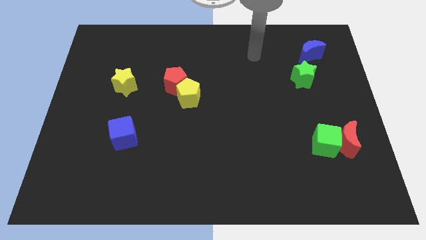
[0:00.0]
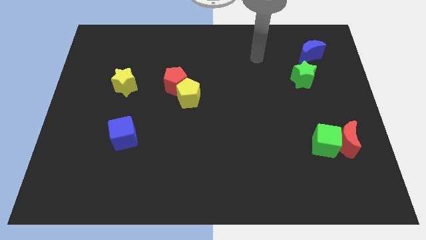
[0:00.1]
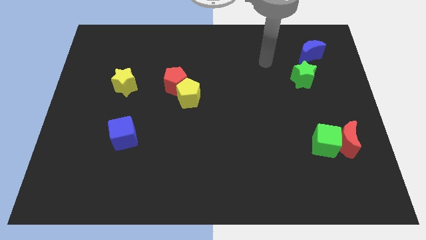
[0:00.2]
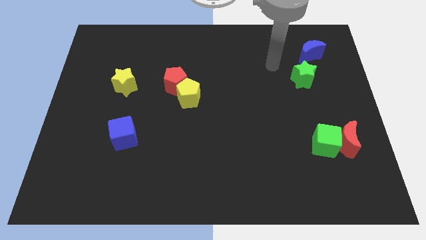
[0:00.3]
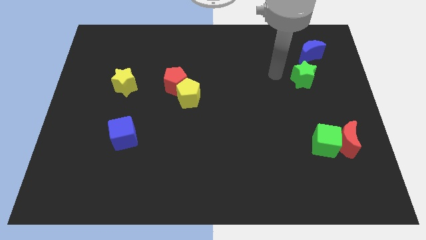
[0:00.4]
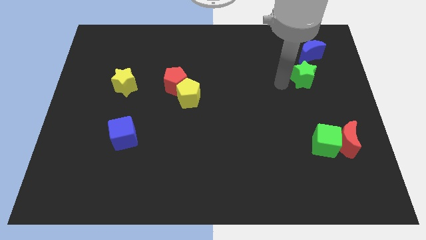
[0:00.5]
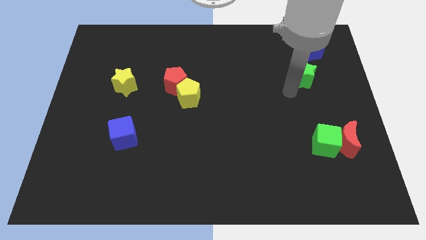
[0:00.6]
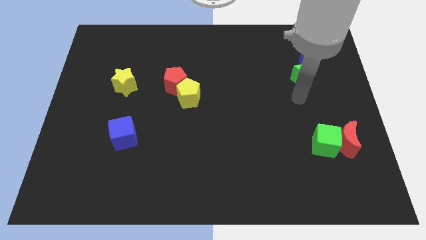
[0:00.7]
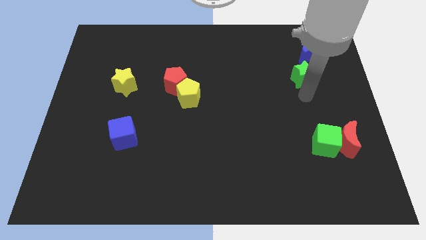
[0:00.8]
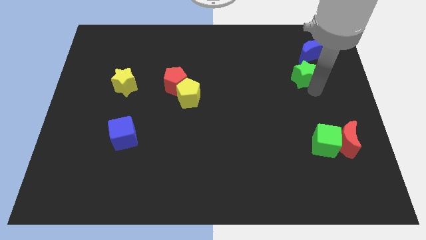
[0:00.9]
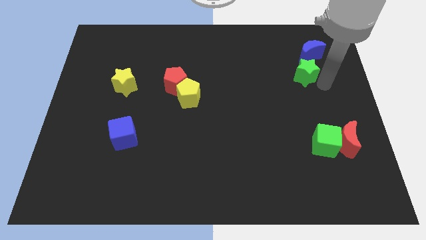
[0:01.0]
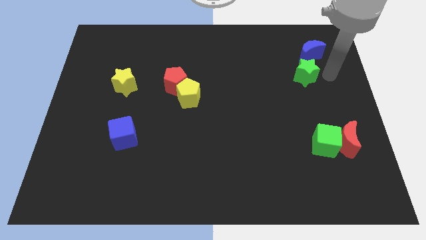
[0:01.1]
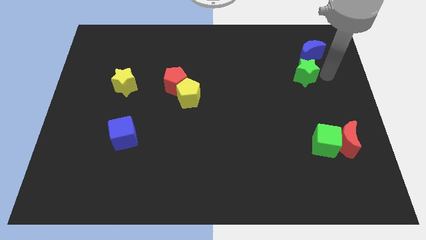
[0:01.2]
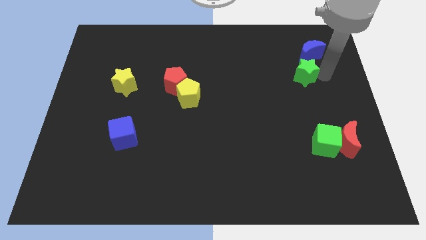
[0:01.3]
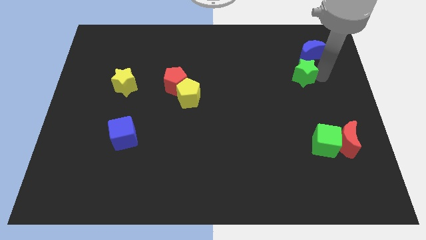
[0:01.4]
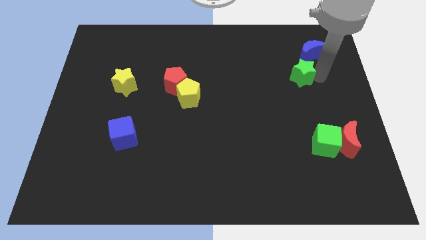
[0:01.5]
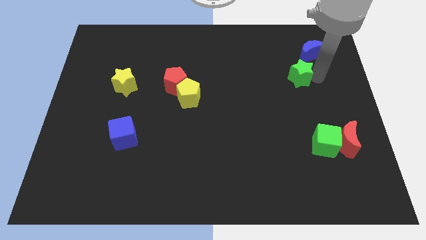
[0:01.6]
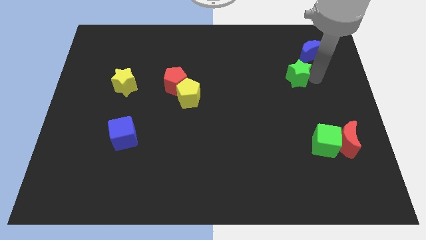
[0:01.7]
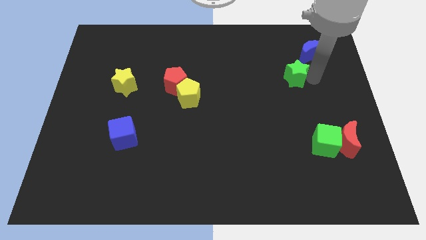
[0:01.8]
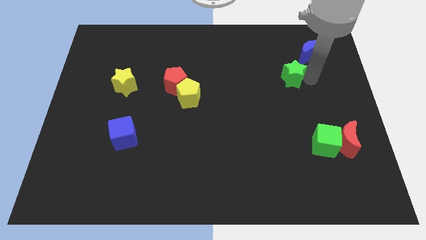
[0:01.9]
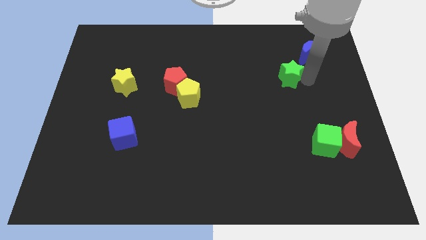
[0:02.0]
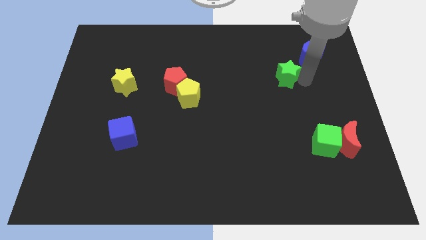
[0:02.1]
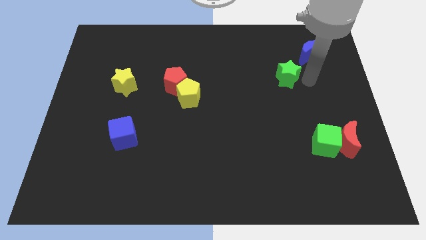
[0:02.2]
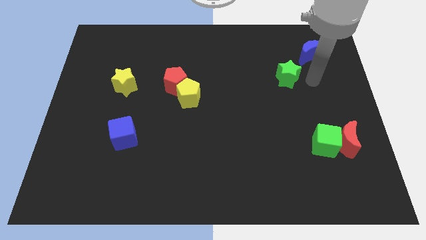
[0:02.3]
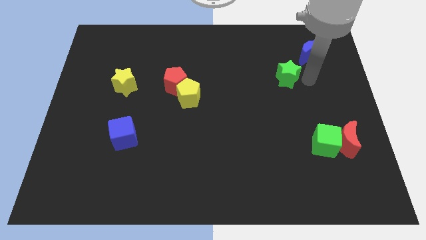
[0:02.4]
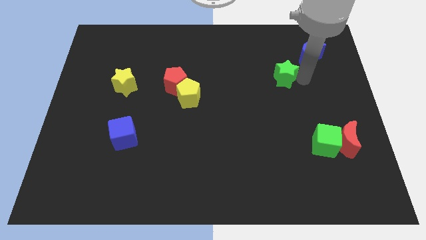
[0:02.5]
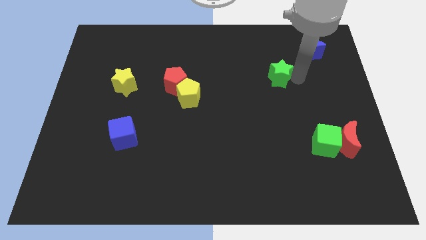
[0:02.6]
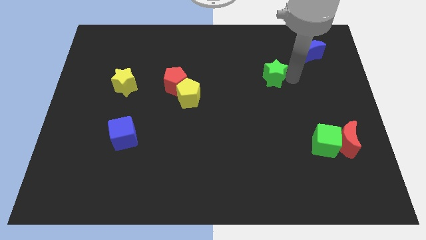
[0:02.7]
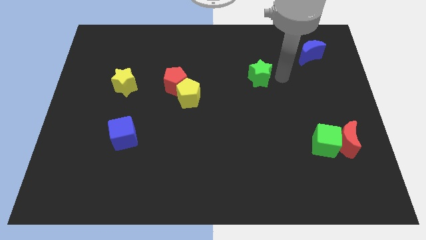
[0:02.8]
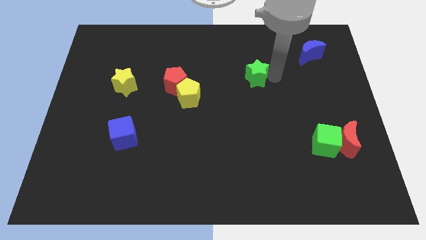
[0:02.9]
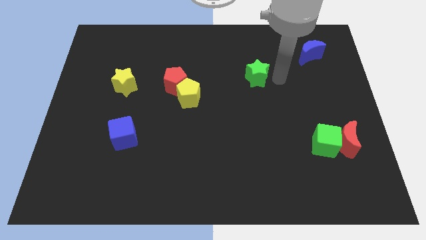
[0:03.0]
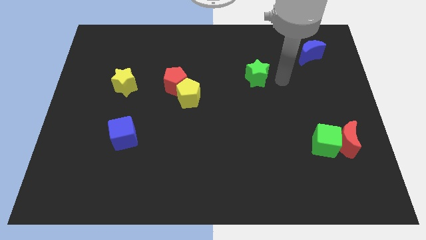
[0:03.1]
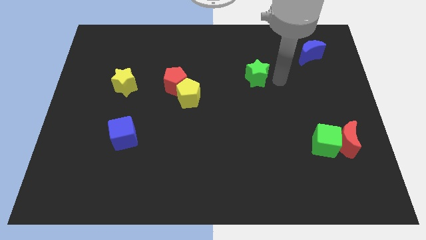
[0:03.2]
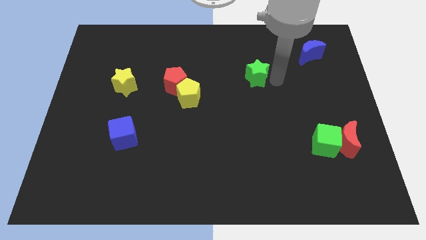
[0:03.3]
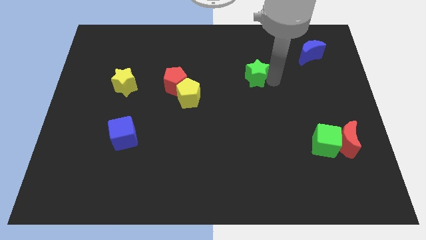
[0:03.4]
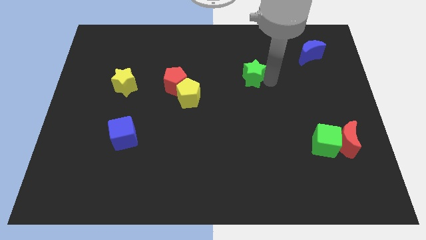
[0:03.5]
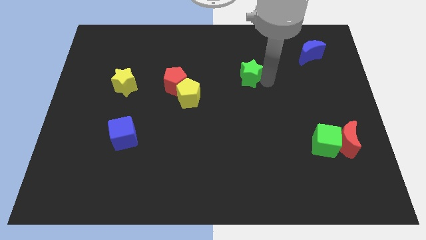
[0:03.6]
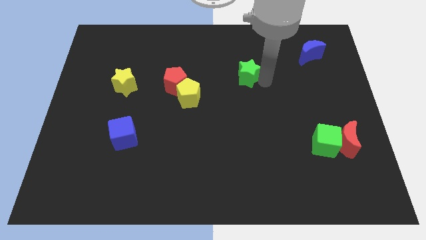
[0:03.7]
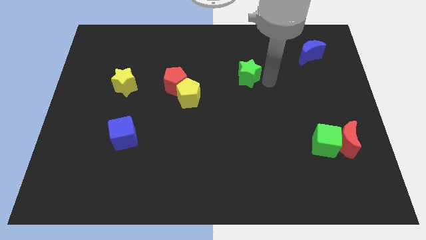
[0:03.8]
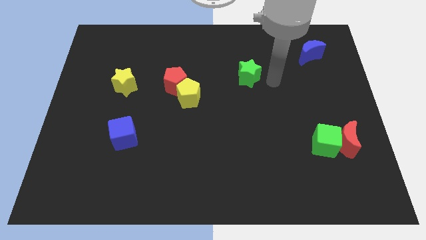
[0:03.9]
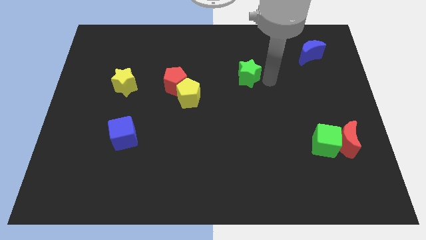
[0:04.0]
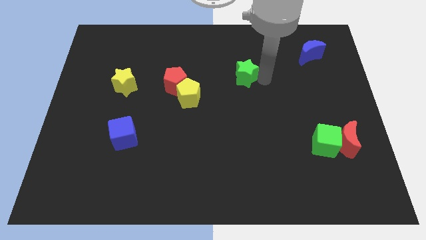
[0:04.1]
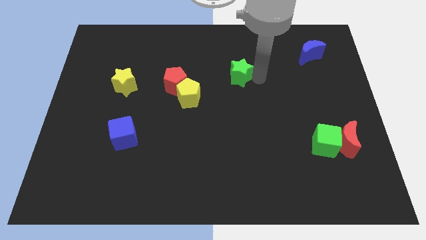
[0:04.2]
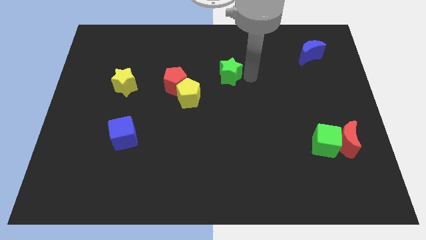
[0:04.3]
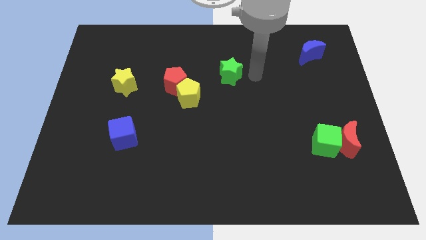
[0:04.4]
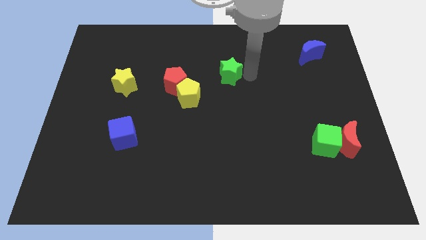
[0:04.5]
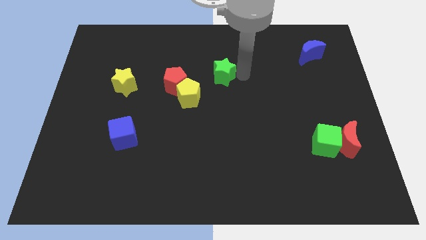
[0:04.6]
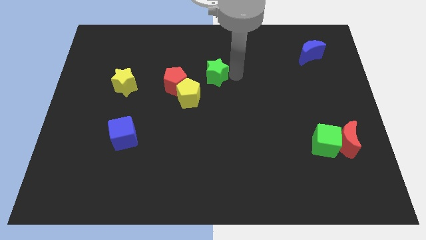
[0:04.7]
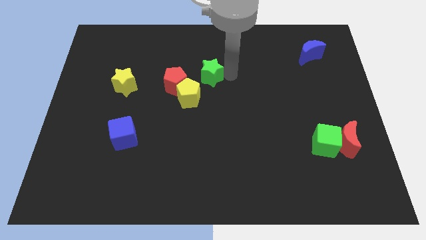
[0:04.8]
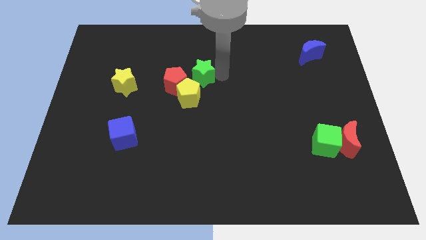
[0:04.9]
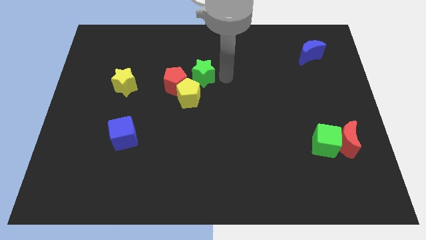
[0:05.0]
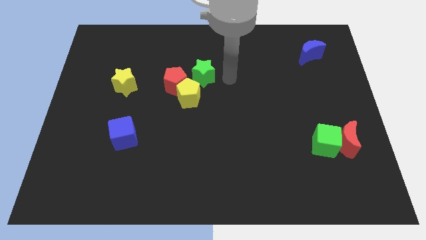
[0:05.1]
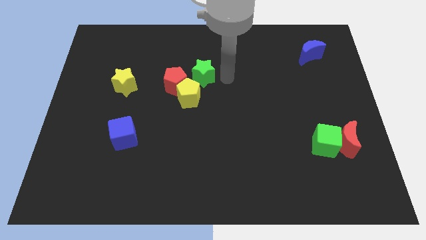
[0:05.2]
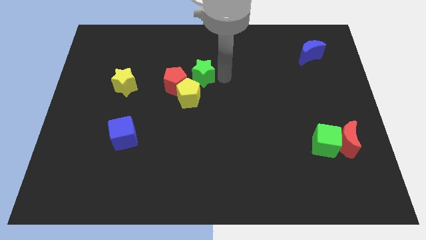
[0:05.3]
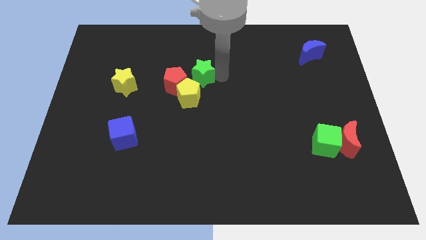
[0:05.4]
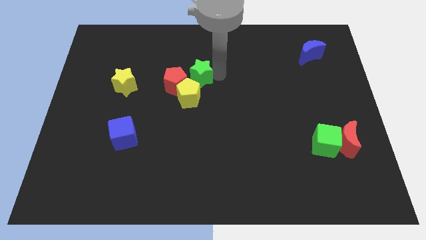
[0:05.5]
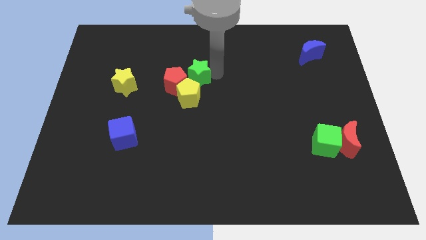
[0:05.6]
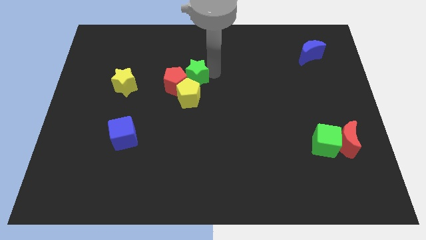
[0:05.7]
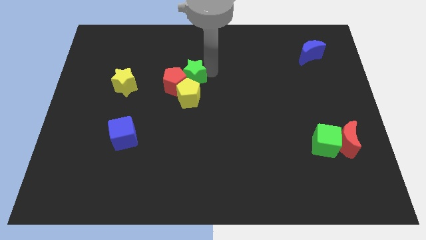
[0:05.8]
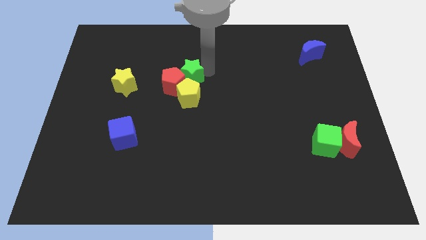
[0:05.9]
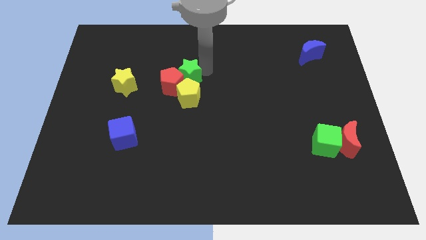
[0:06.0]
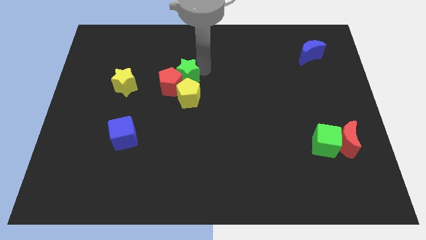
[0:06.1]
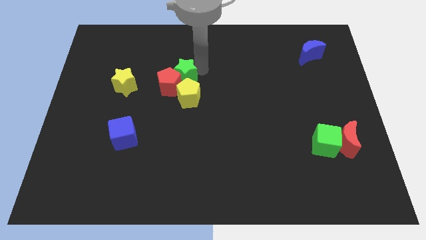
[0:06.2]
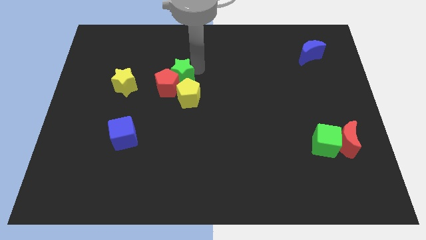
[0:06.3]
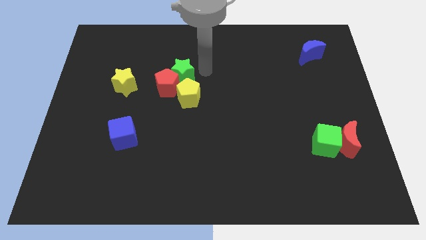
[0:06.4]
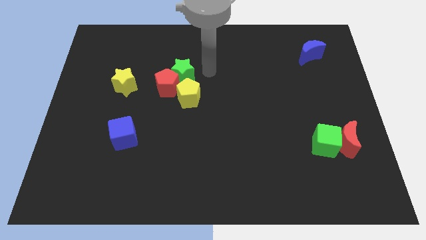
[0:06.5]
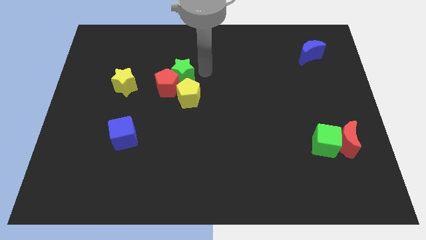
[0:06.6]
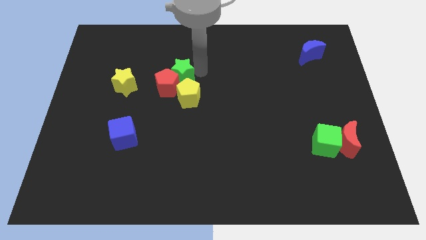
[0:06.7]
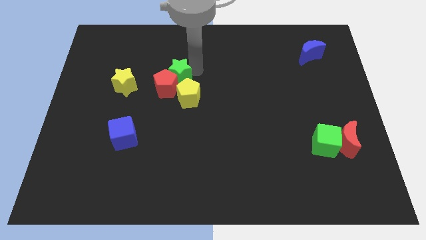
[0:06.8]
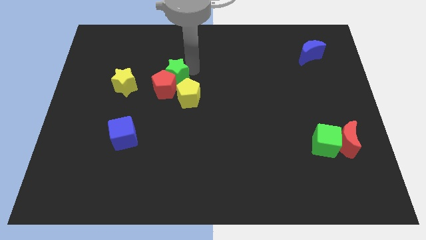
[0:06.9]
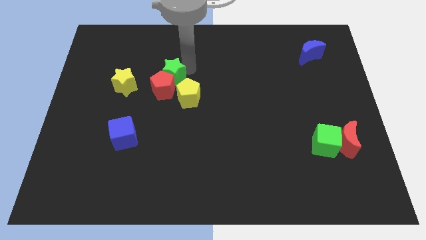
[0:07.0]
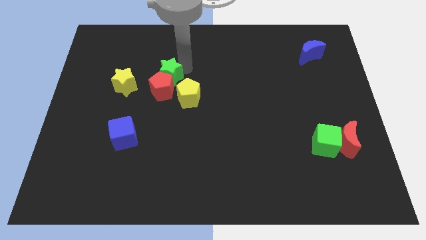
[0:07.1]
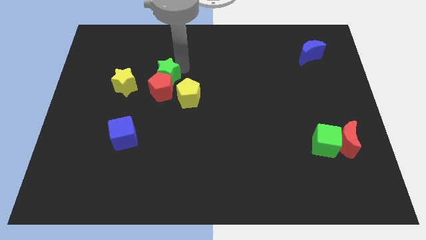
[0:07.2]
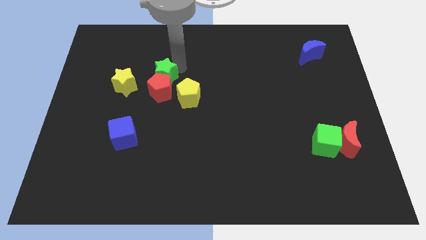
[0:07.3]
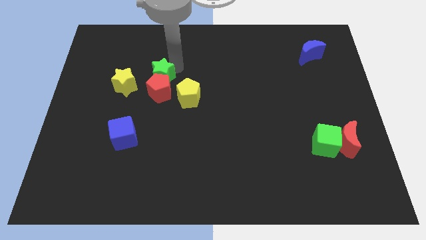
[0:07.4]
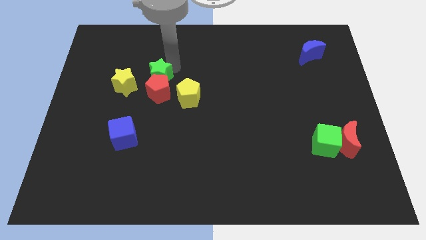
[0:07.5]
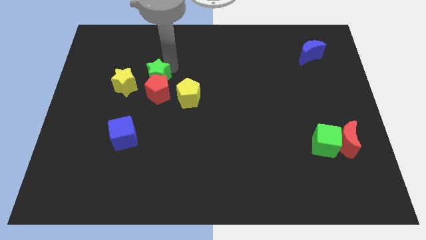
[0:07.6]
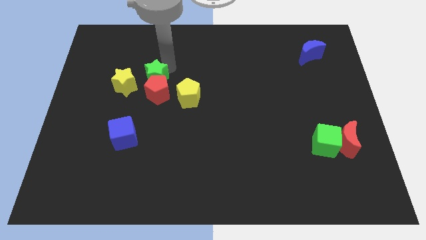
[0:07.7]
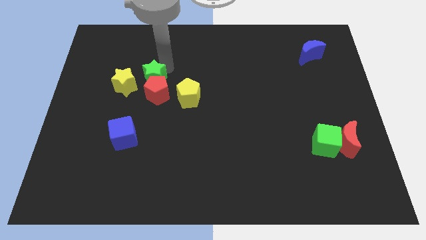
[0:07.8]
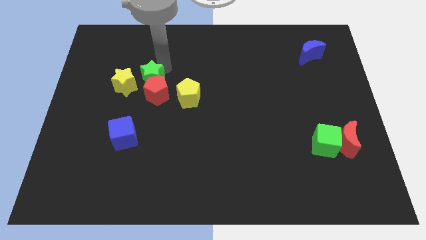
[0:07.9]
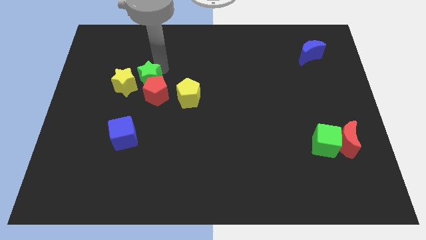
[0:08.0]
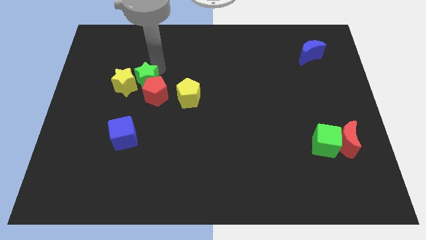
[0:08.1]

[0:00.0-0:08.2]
put the green star to the yellow star
